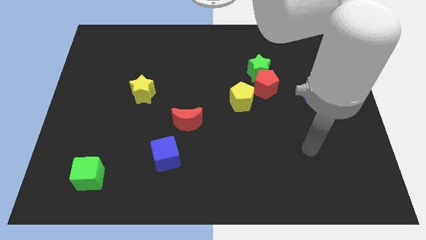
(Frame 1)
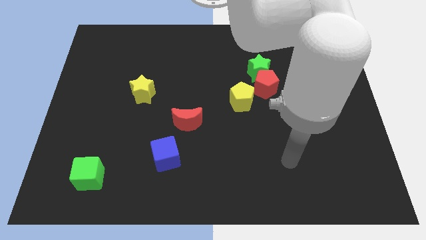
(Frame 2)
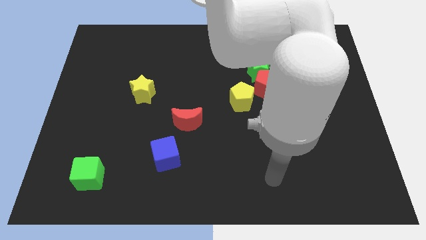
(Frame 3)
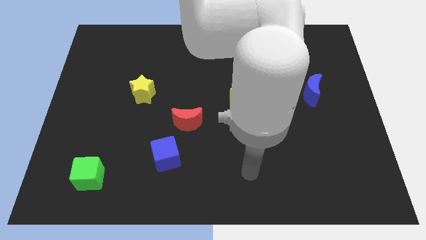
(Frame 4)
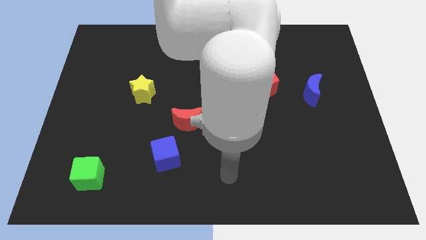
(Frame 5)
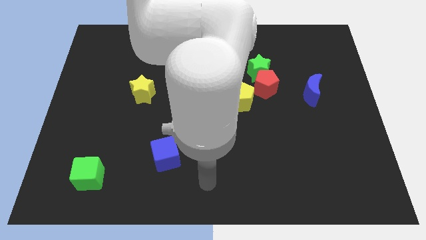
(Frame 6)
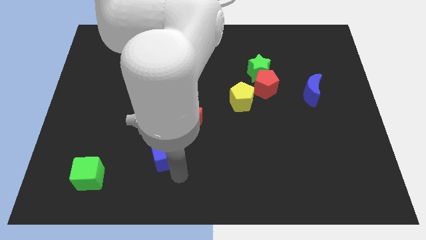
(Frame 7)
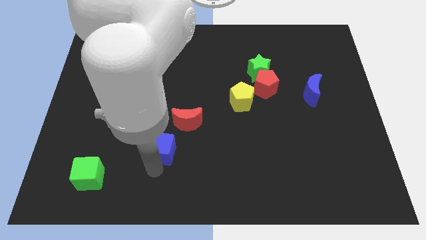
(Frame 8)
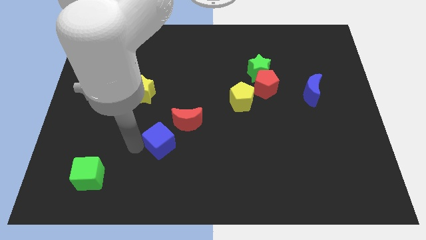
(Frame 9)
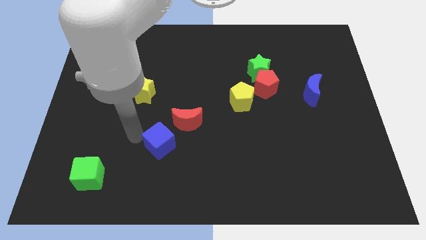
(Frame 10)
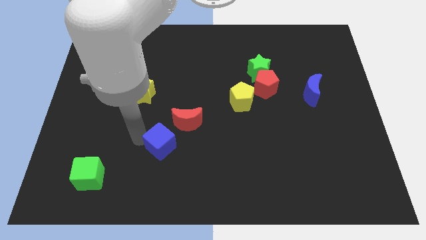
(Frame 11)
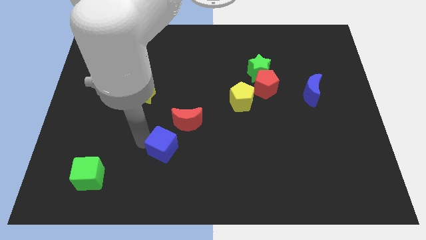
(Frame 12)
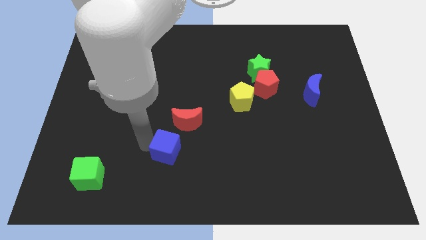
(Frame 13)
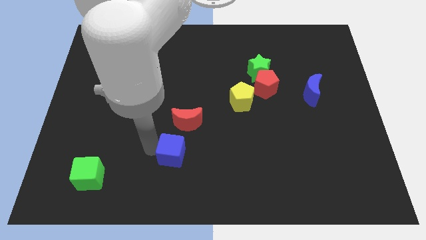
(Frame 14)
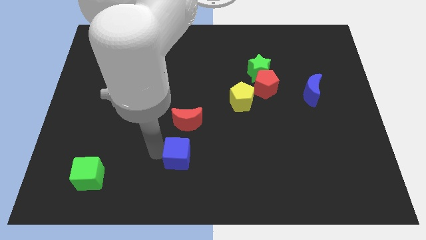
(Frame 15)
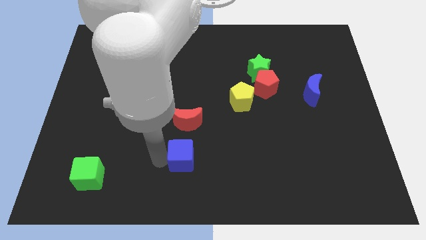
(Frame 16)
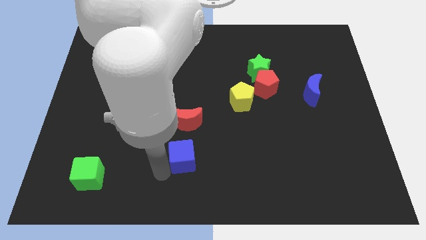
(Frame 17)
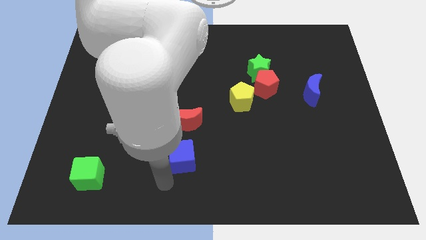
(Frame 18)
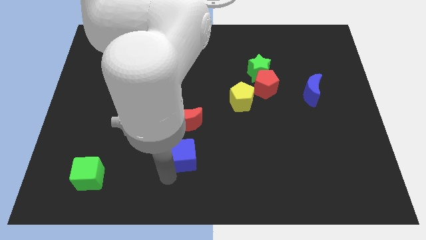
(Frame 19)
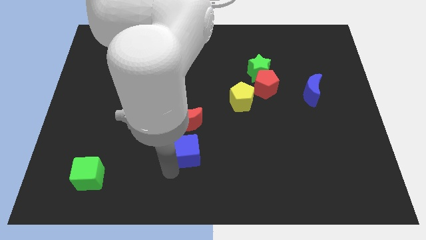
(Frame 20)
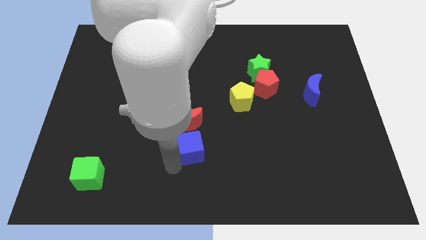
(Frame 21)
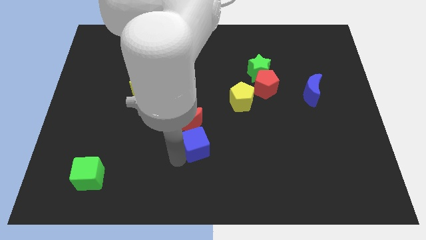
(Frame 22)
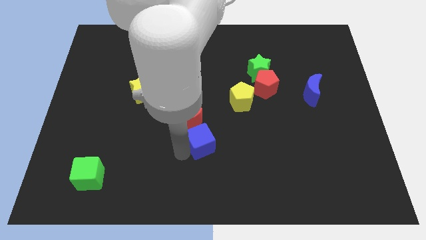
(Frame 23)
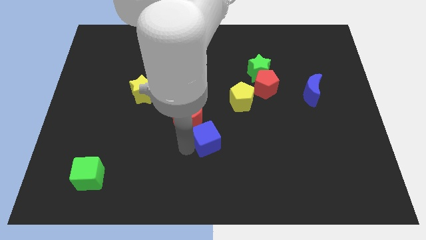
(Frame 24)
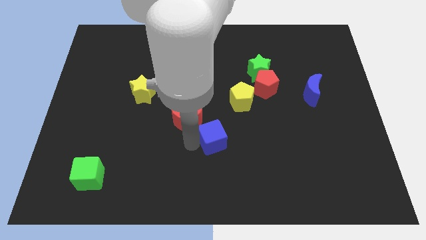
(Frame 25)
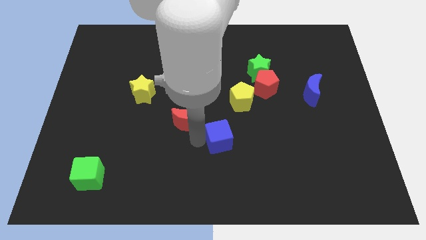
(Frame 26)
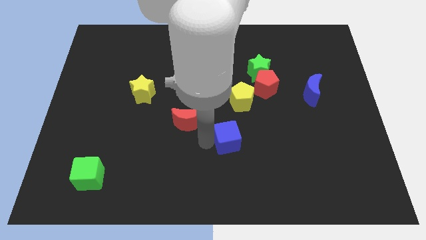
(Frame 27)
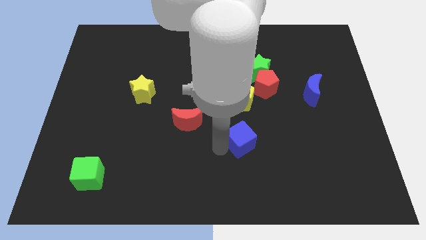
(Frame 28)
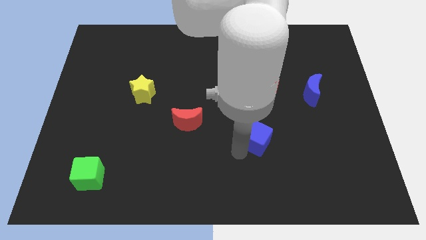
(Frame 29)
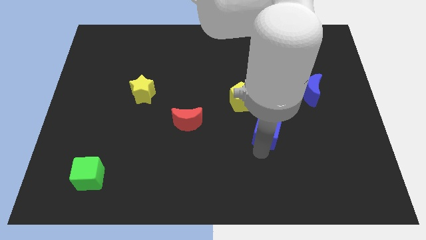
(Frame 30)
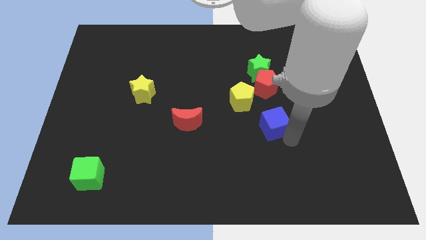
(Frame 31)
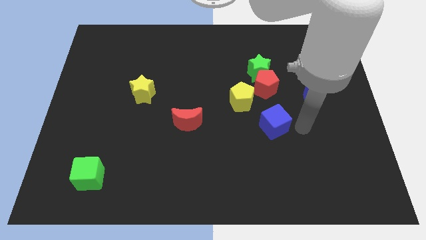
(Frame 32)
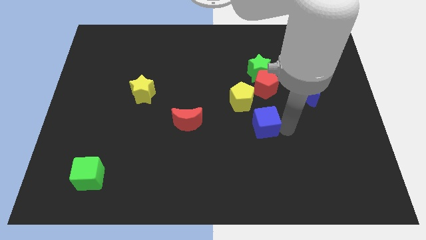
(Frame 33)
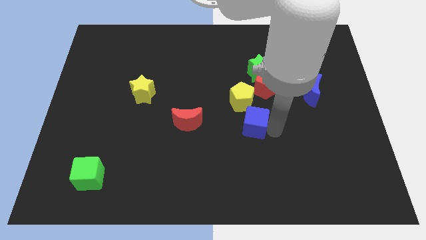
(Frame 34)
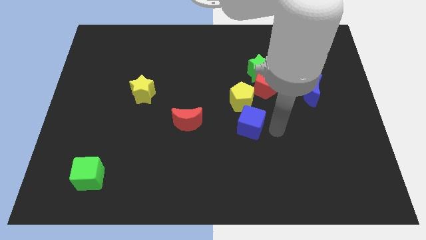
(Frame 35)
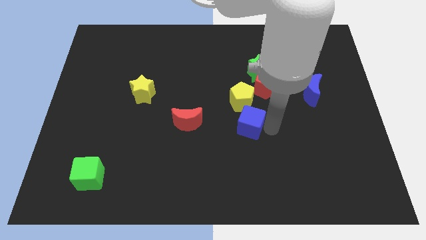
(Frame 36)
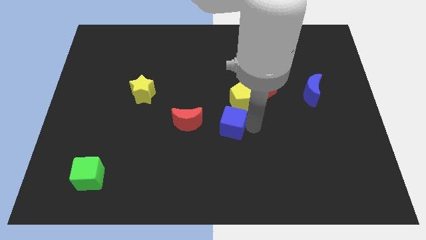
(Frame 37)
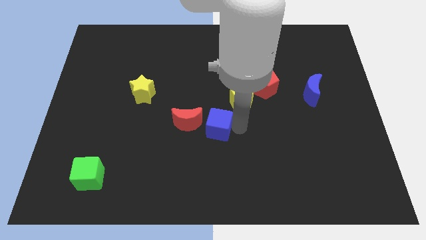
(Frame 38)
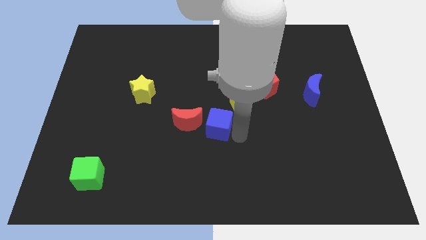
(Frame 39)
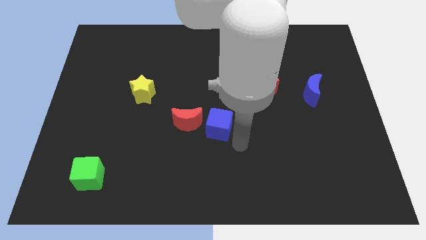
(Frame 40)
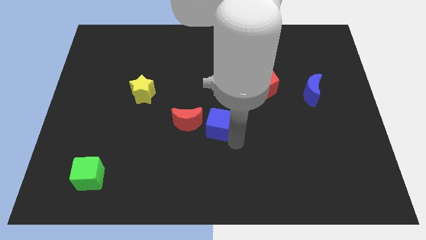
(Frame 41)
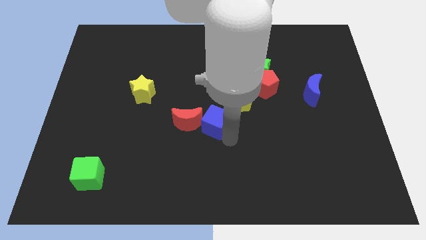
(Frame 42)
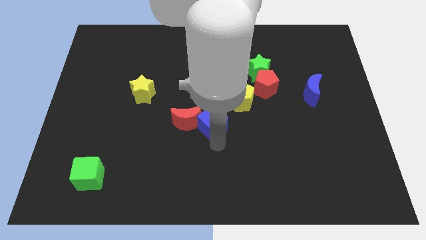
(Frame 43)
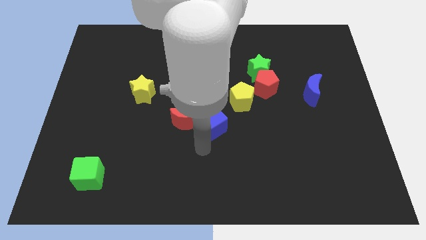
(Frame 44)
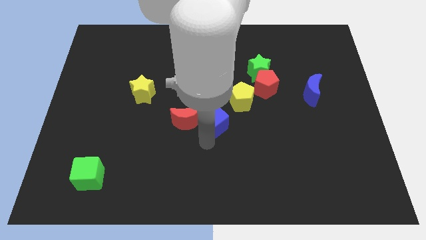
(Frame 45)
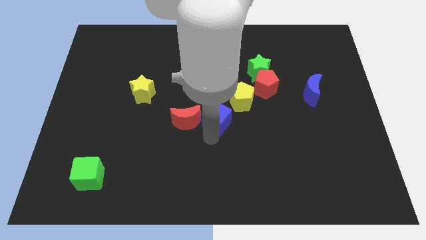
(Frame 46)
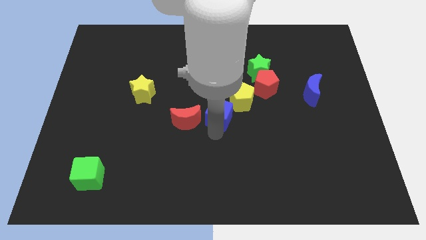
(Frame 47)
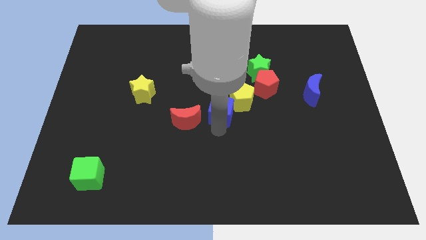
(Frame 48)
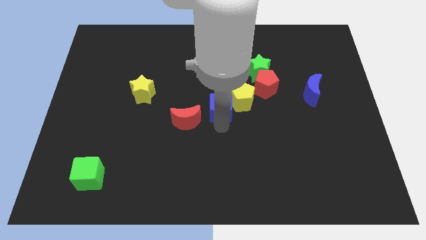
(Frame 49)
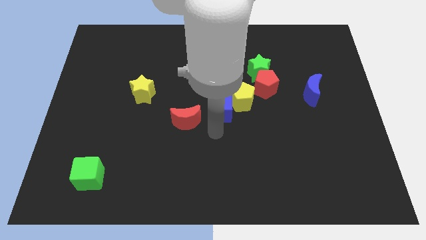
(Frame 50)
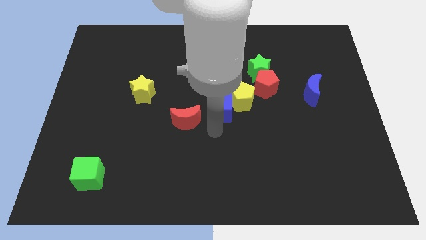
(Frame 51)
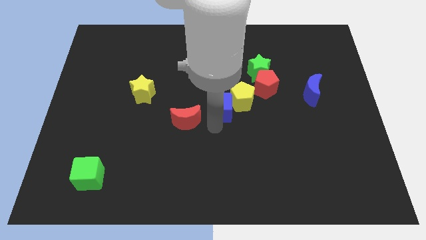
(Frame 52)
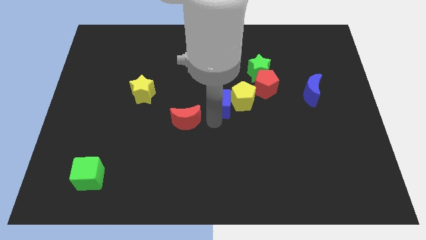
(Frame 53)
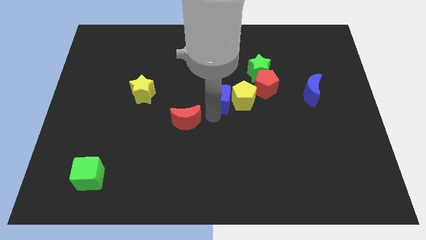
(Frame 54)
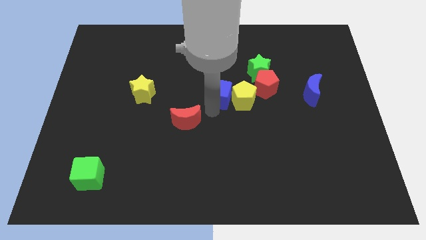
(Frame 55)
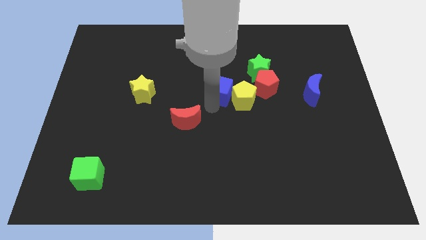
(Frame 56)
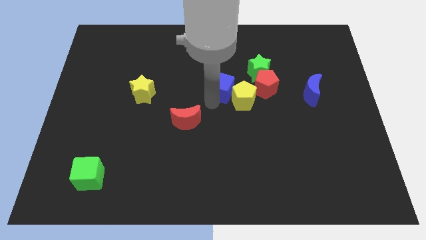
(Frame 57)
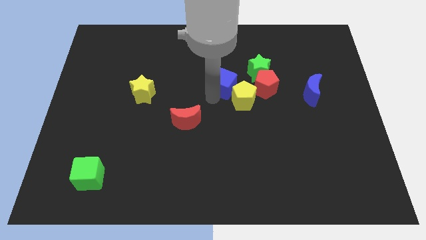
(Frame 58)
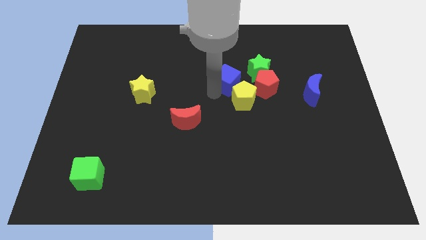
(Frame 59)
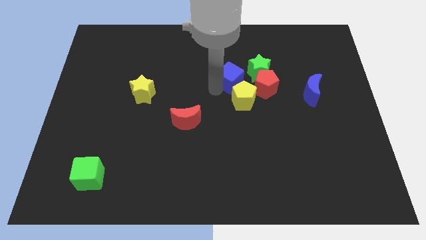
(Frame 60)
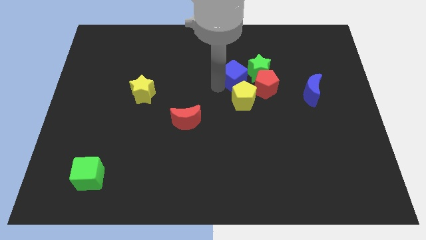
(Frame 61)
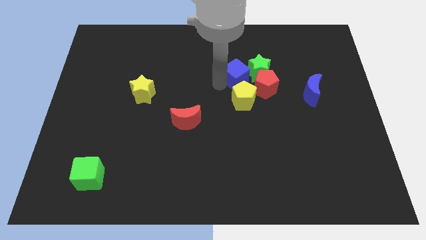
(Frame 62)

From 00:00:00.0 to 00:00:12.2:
push the blue cube close to the green star

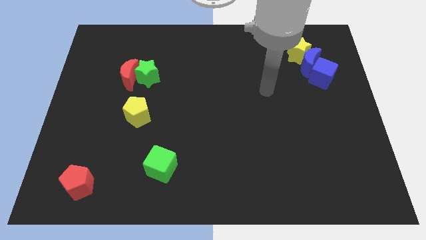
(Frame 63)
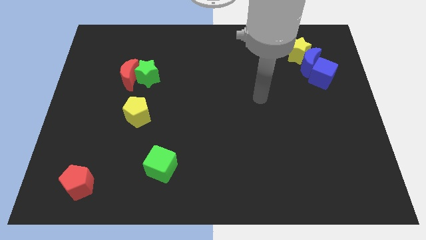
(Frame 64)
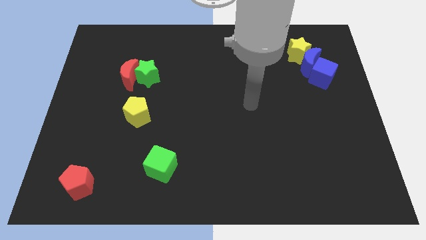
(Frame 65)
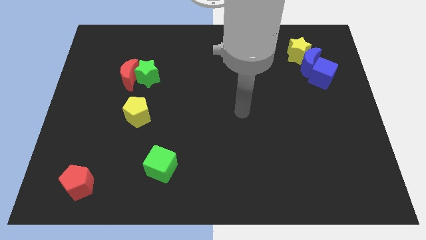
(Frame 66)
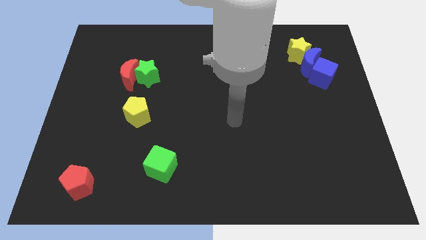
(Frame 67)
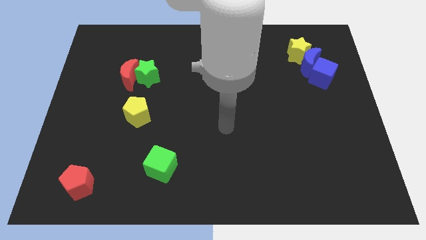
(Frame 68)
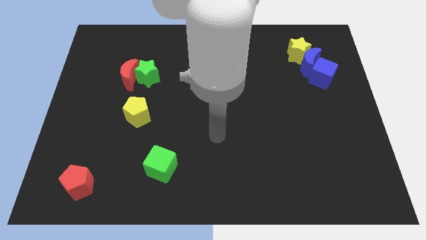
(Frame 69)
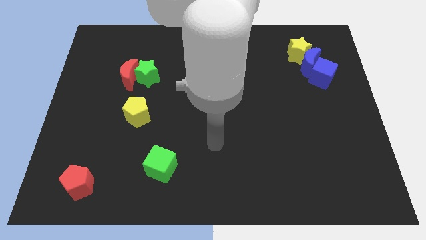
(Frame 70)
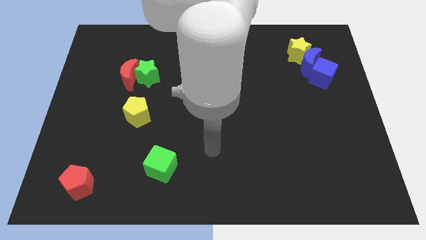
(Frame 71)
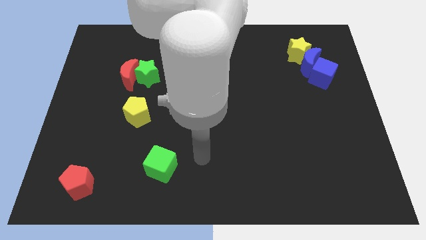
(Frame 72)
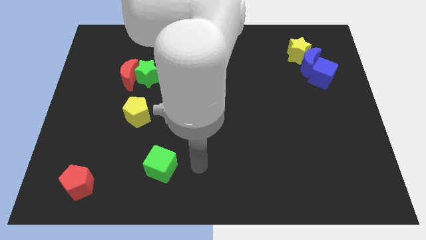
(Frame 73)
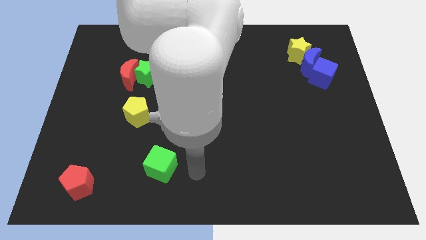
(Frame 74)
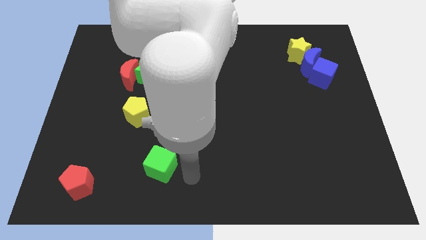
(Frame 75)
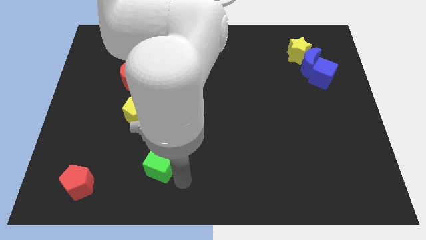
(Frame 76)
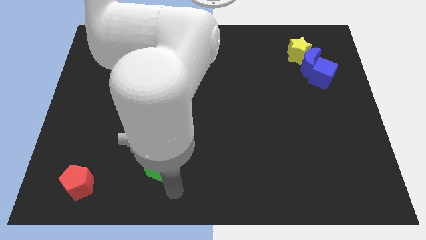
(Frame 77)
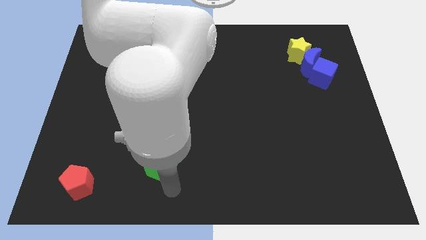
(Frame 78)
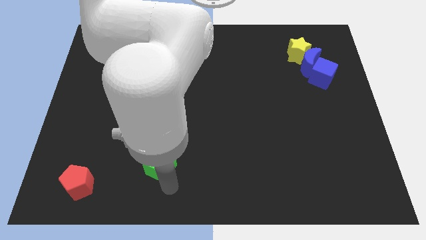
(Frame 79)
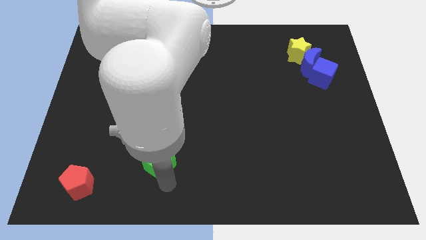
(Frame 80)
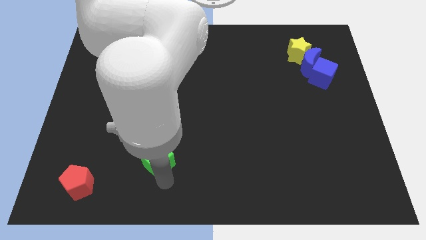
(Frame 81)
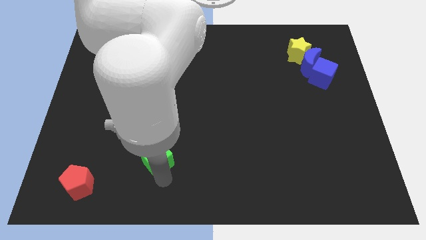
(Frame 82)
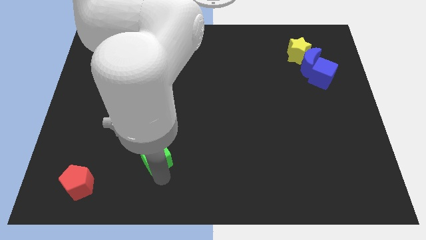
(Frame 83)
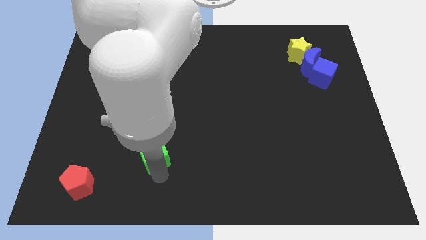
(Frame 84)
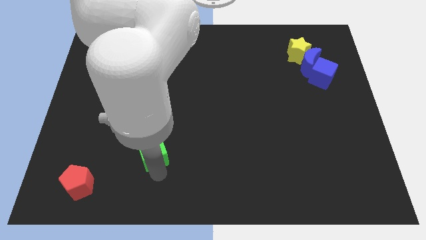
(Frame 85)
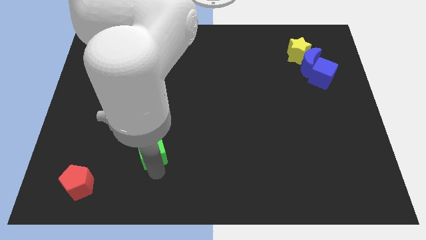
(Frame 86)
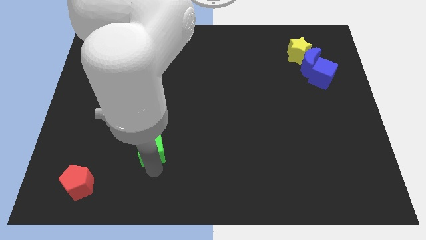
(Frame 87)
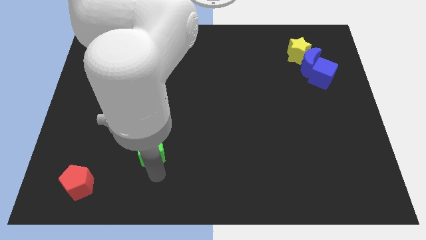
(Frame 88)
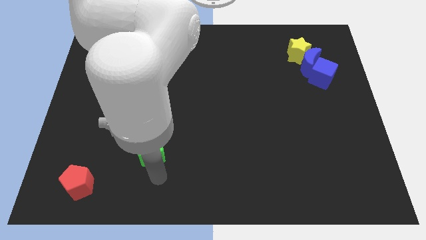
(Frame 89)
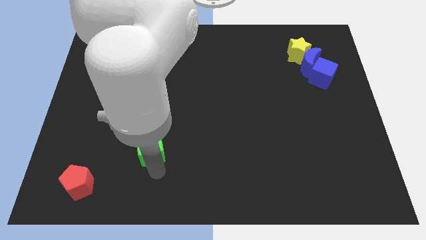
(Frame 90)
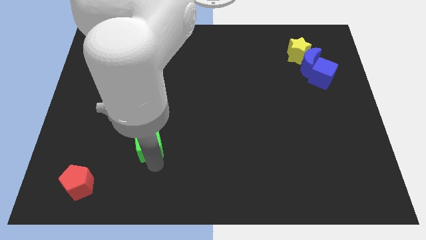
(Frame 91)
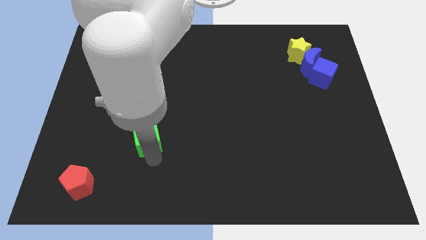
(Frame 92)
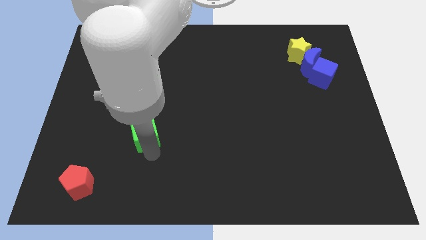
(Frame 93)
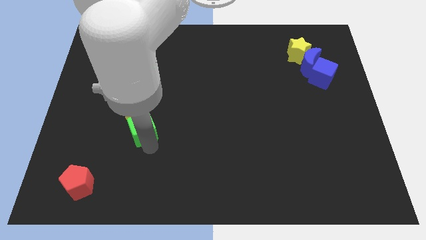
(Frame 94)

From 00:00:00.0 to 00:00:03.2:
push the green cube towards the yellow pentagon
